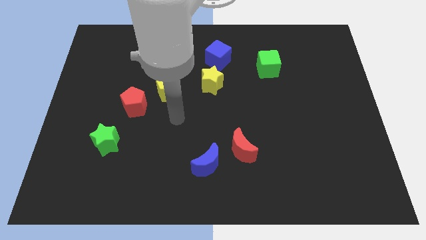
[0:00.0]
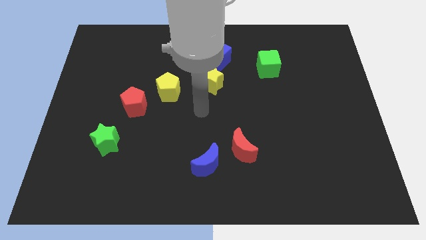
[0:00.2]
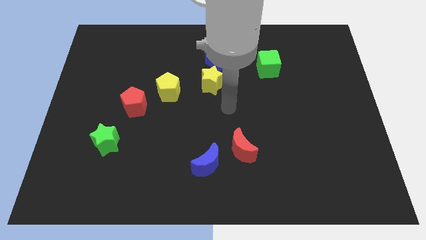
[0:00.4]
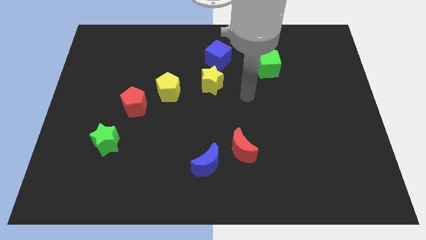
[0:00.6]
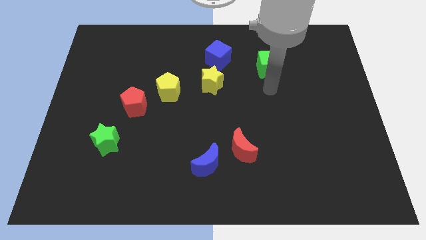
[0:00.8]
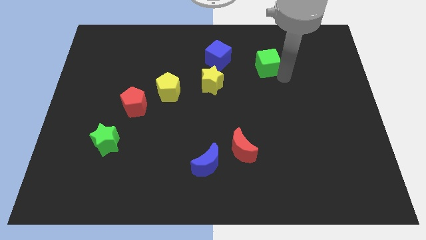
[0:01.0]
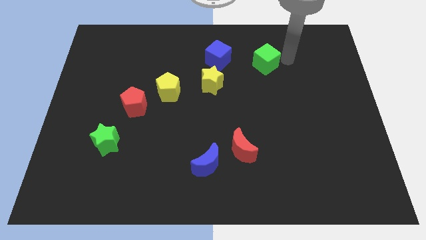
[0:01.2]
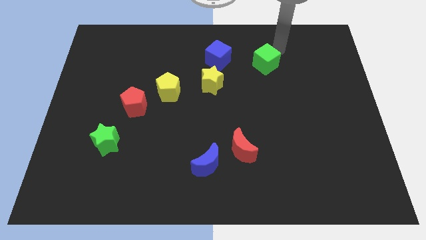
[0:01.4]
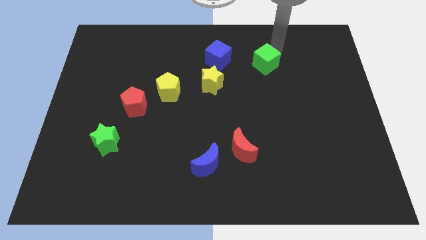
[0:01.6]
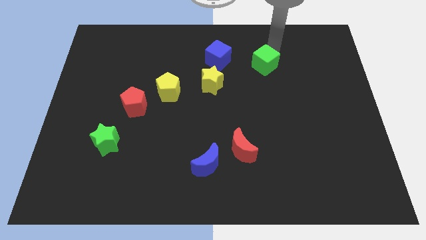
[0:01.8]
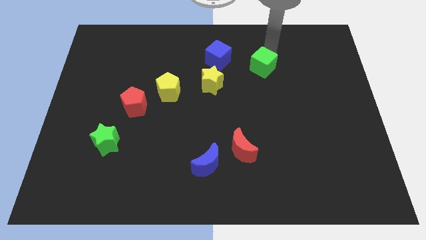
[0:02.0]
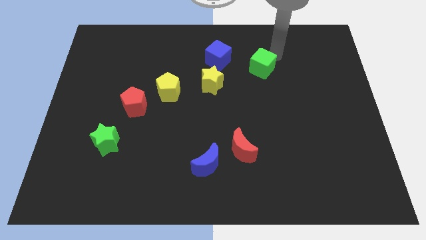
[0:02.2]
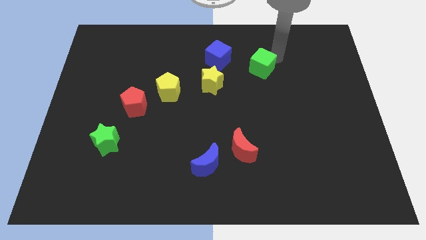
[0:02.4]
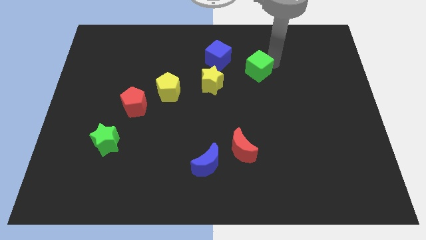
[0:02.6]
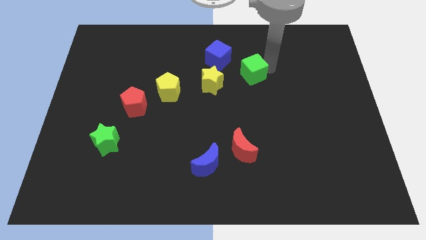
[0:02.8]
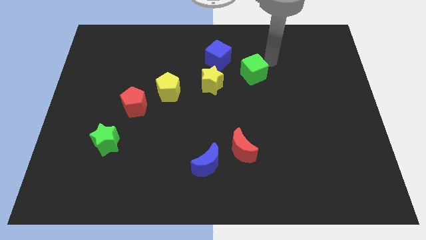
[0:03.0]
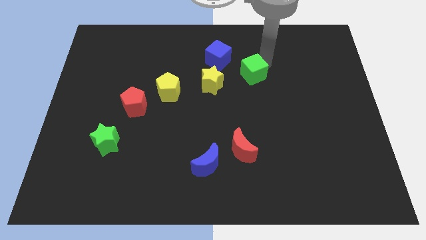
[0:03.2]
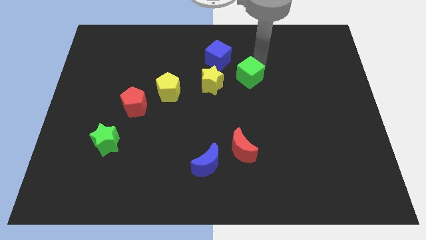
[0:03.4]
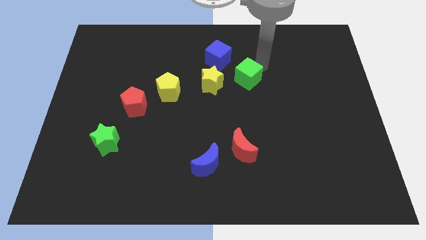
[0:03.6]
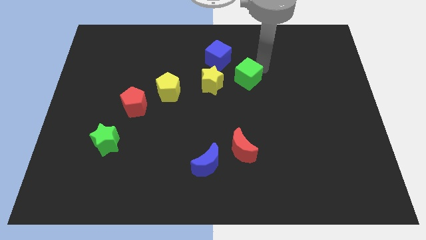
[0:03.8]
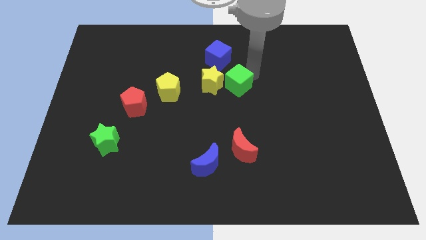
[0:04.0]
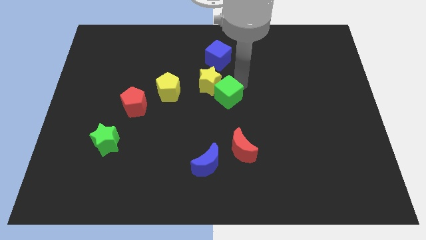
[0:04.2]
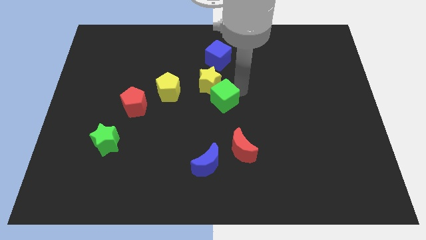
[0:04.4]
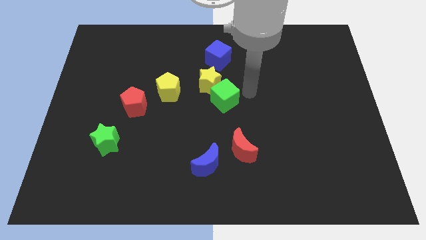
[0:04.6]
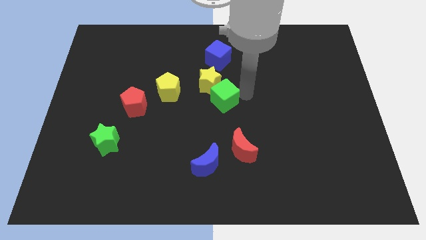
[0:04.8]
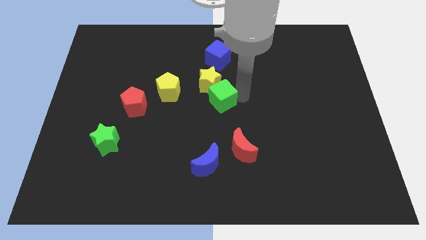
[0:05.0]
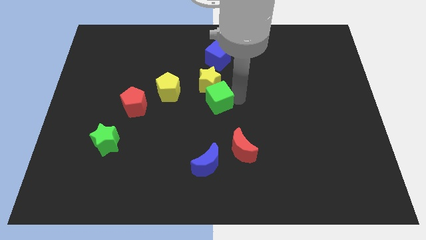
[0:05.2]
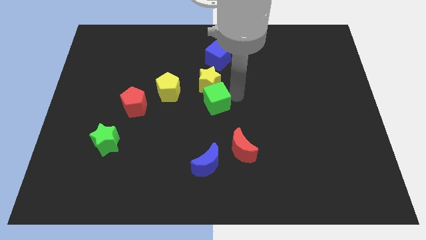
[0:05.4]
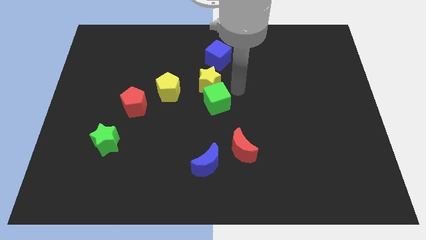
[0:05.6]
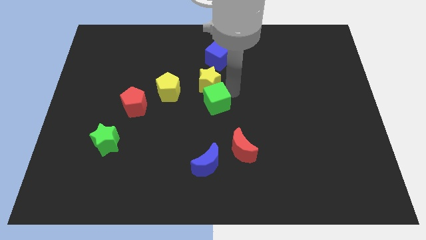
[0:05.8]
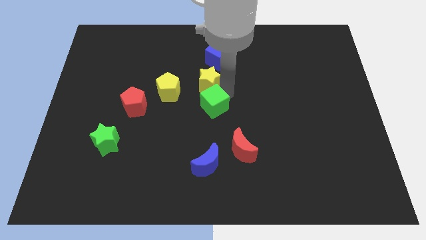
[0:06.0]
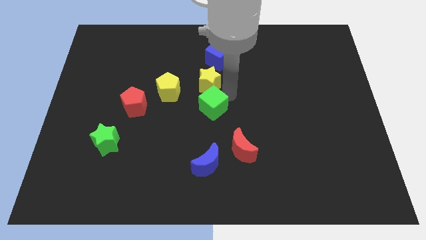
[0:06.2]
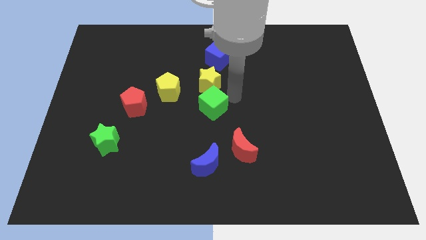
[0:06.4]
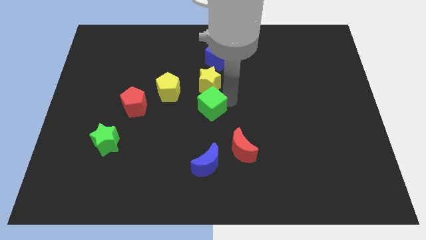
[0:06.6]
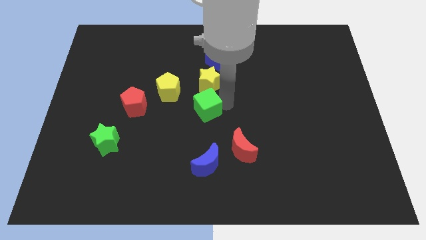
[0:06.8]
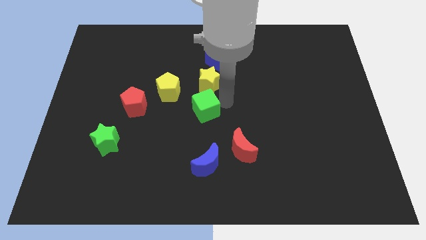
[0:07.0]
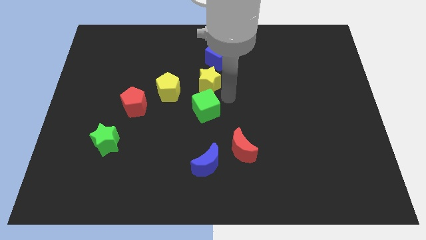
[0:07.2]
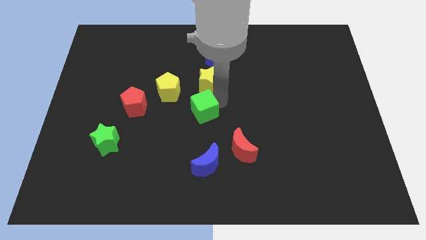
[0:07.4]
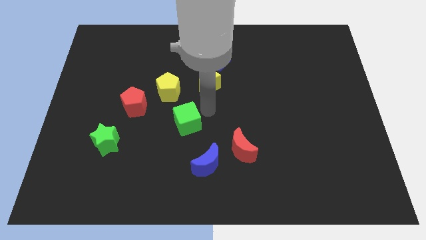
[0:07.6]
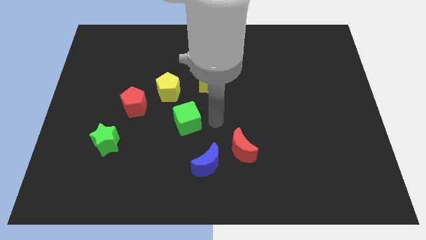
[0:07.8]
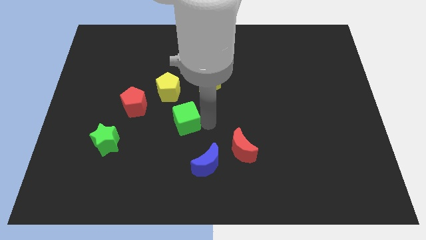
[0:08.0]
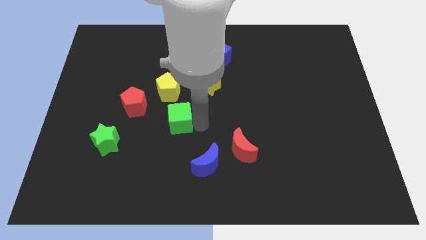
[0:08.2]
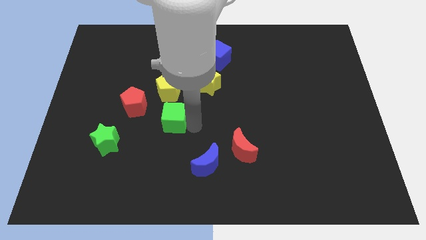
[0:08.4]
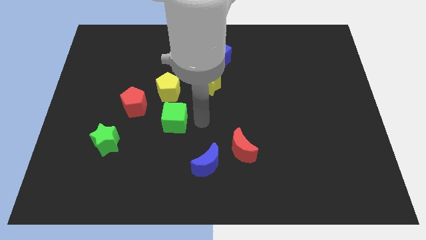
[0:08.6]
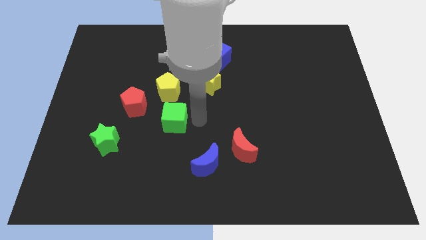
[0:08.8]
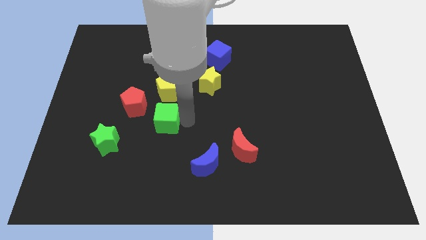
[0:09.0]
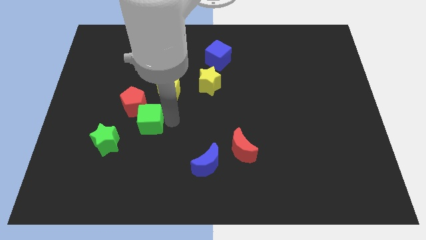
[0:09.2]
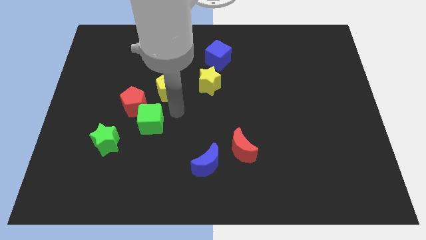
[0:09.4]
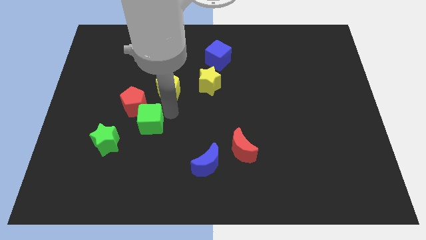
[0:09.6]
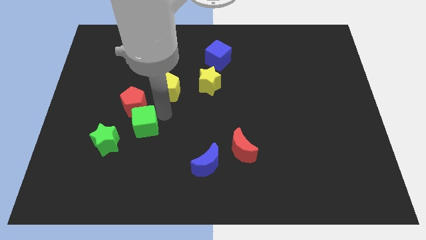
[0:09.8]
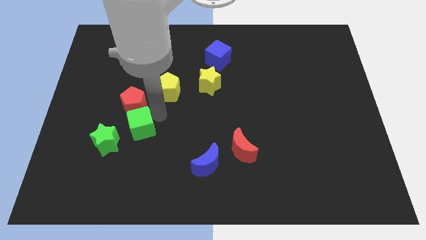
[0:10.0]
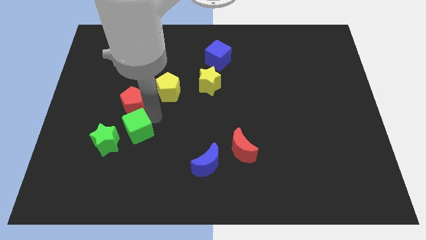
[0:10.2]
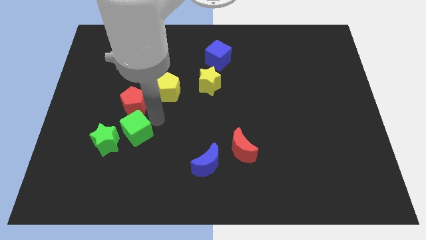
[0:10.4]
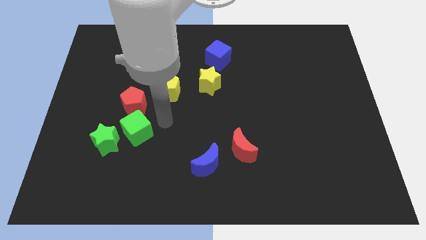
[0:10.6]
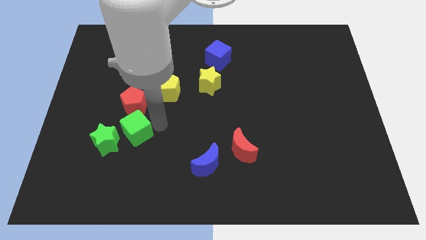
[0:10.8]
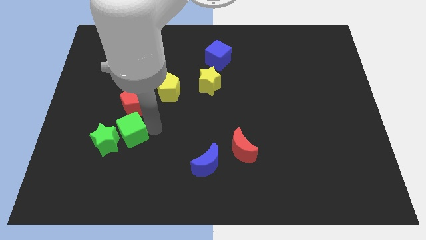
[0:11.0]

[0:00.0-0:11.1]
push the green cube next to the green star

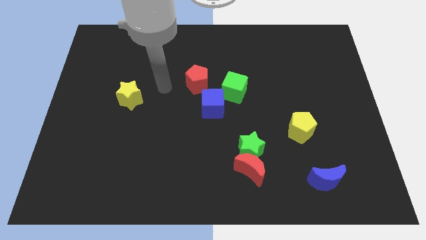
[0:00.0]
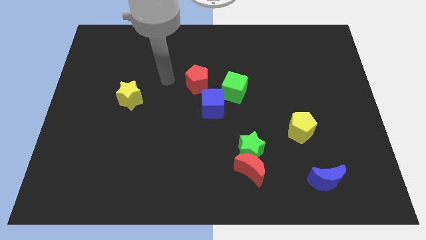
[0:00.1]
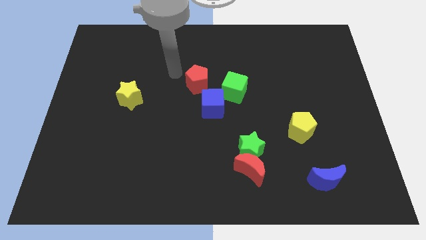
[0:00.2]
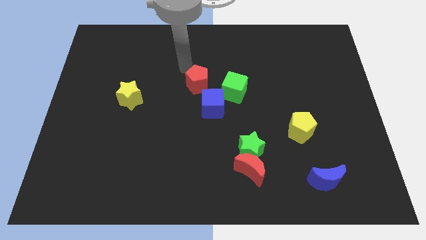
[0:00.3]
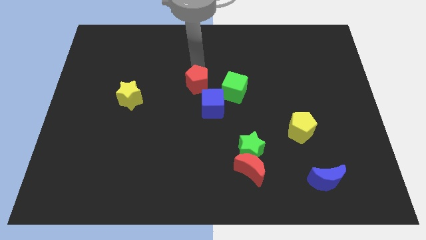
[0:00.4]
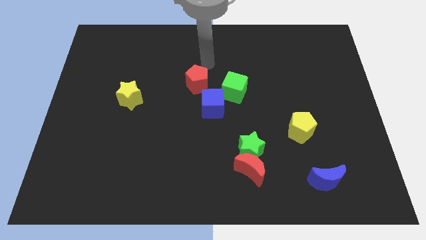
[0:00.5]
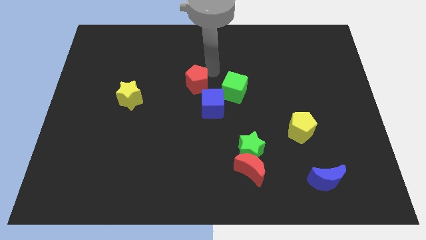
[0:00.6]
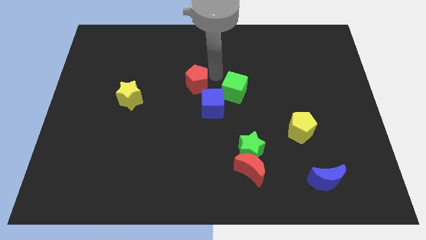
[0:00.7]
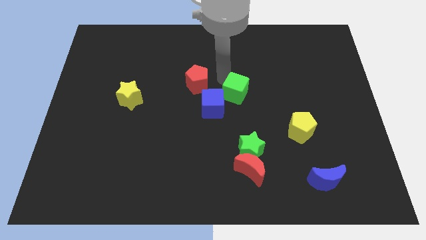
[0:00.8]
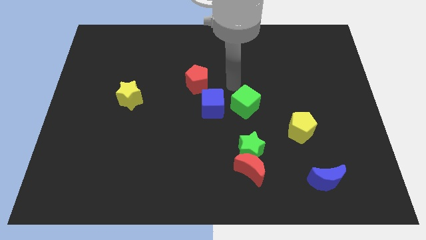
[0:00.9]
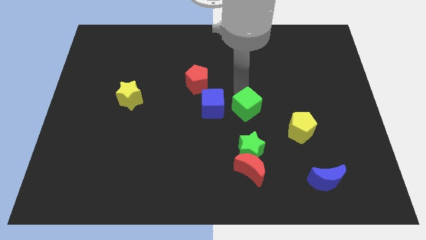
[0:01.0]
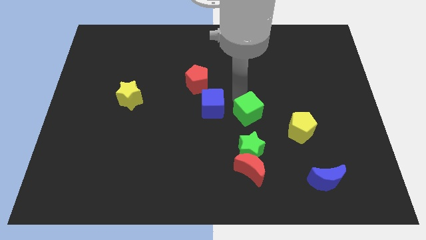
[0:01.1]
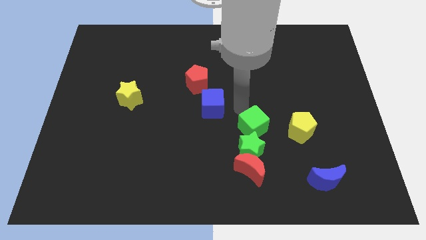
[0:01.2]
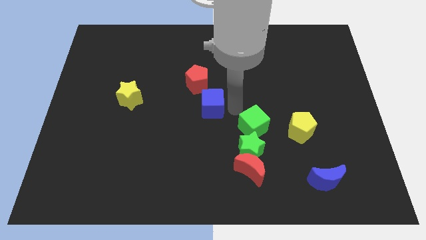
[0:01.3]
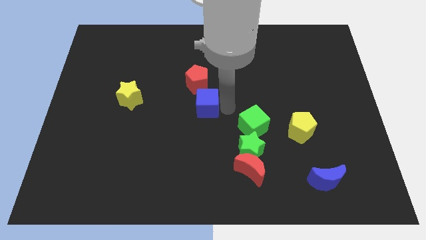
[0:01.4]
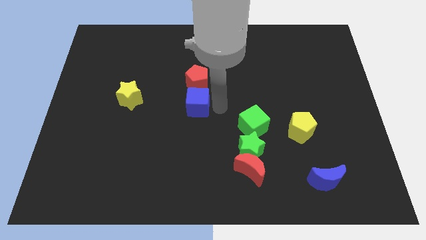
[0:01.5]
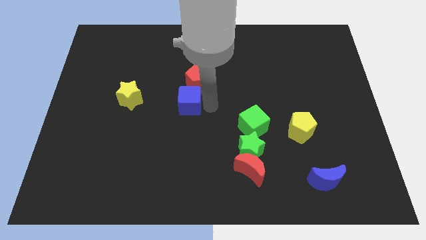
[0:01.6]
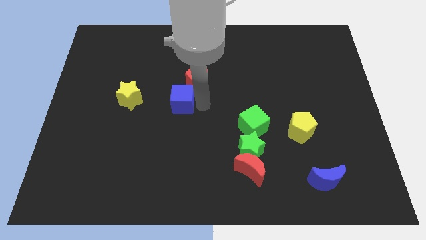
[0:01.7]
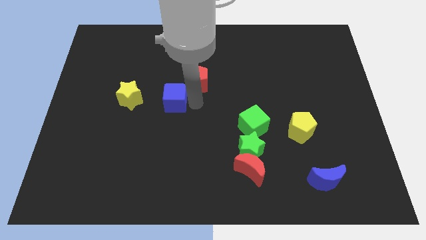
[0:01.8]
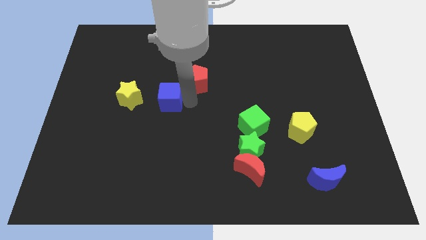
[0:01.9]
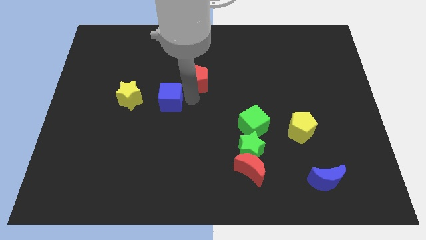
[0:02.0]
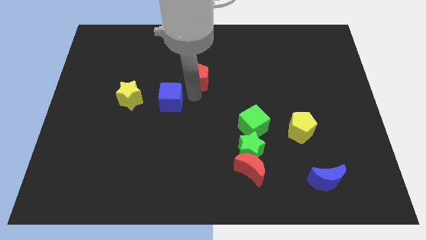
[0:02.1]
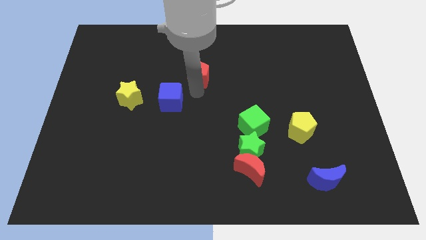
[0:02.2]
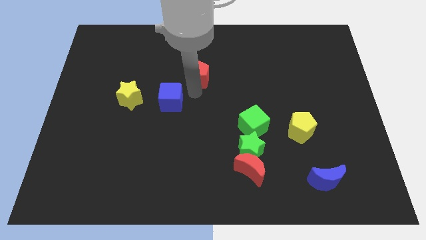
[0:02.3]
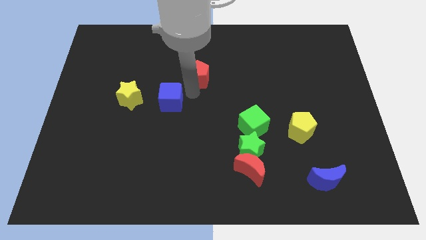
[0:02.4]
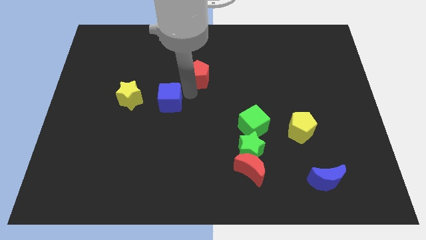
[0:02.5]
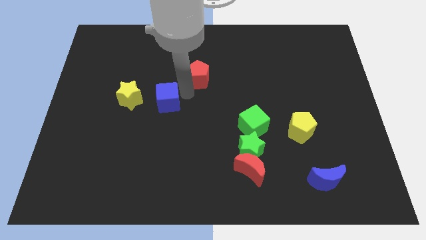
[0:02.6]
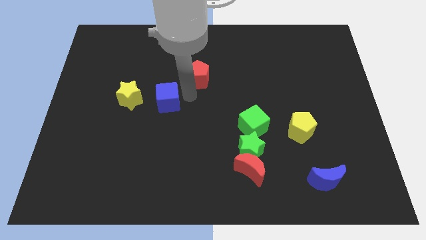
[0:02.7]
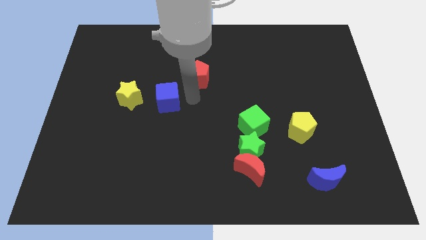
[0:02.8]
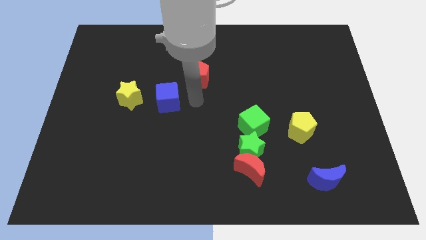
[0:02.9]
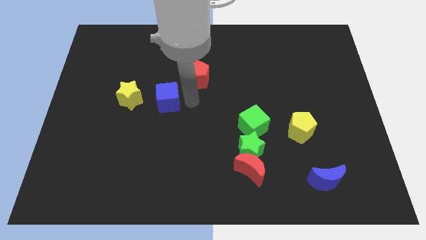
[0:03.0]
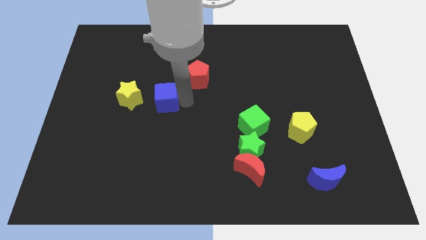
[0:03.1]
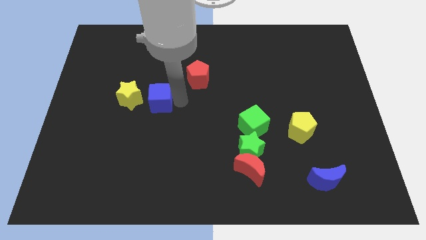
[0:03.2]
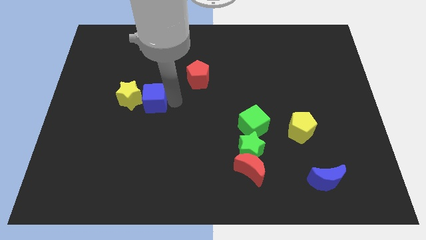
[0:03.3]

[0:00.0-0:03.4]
slide the blue cube to the yellow star
